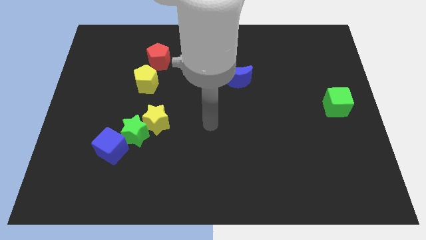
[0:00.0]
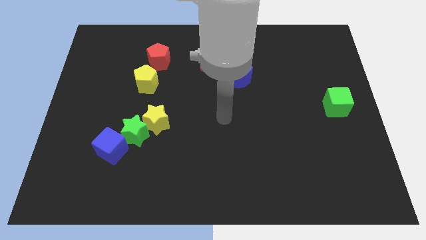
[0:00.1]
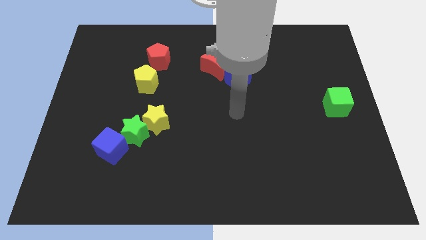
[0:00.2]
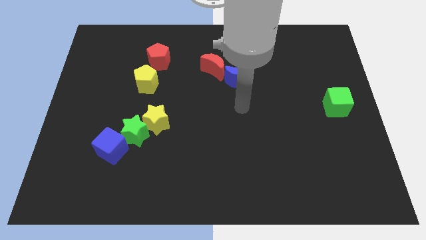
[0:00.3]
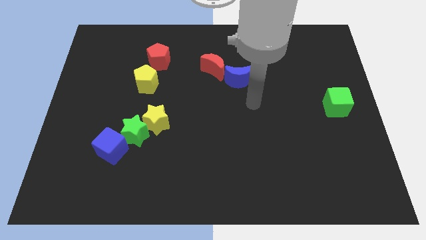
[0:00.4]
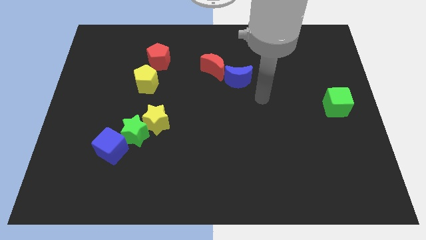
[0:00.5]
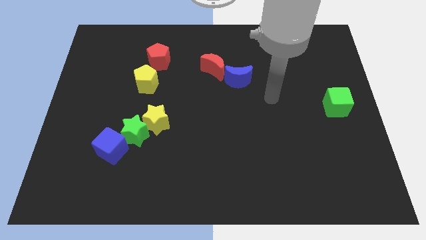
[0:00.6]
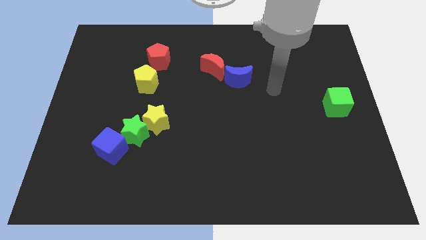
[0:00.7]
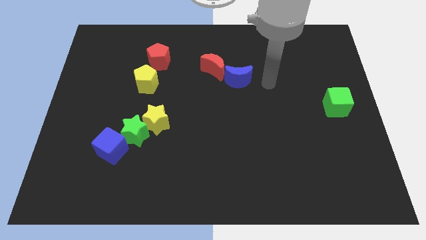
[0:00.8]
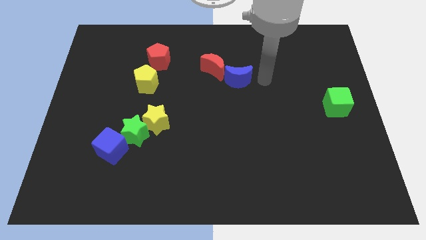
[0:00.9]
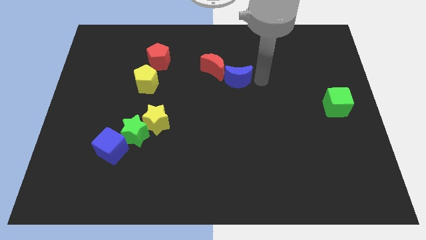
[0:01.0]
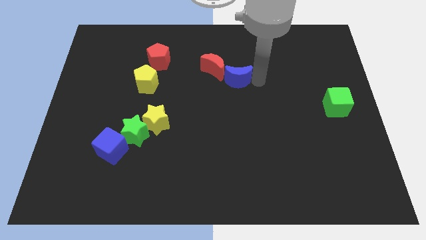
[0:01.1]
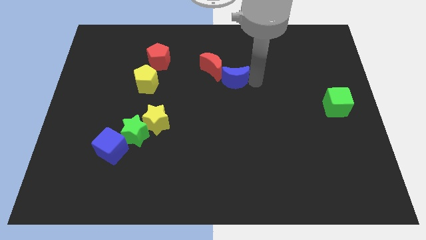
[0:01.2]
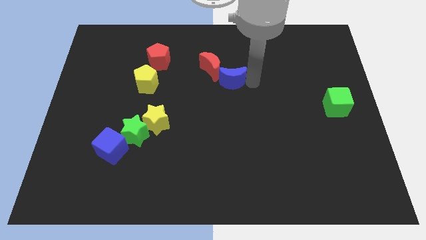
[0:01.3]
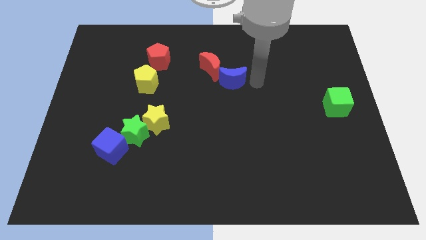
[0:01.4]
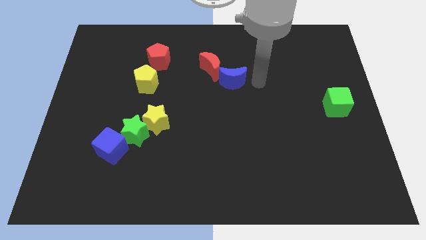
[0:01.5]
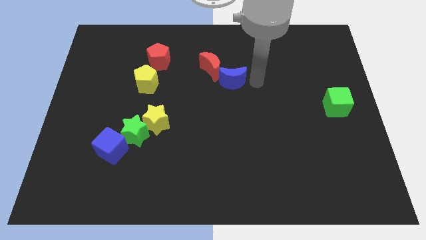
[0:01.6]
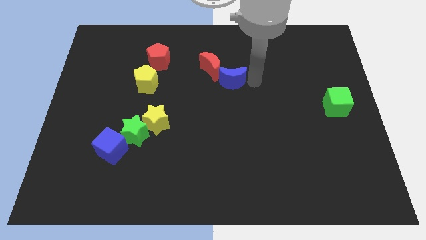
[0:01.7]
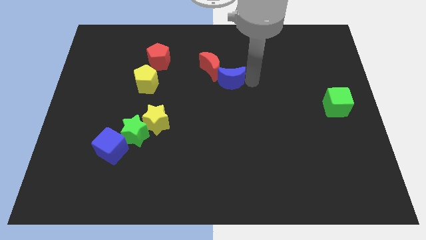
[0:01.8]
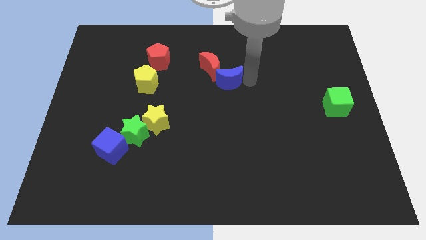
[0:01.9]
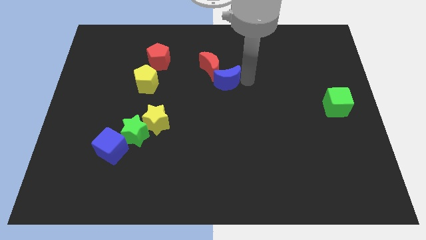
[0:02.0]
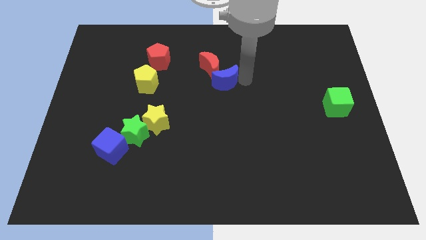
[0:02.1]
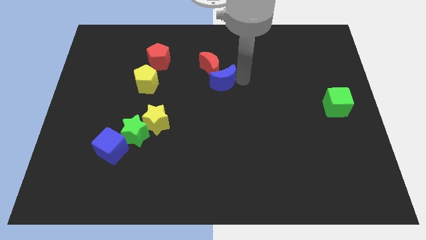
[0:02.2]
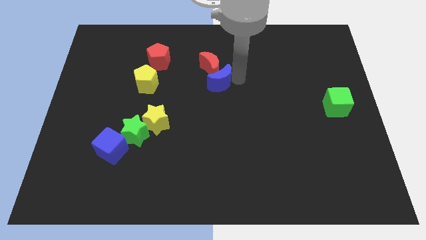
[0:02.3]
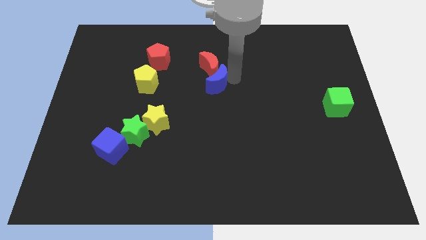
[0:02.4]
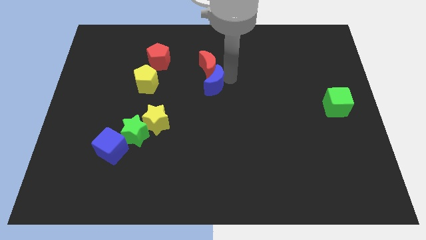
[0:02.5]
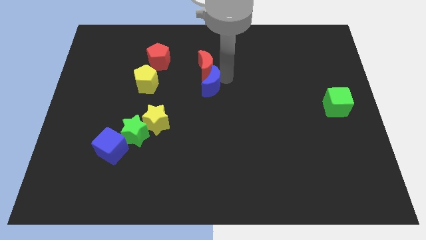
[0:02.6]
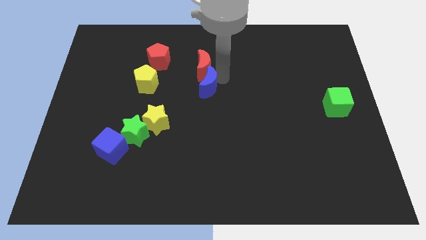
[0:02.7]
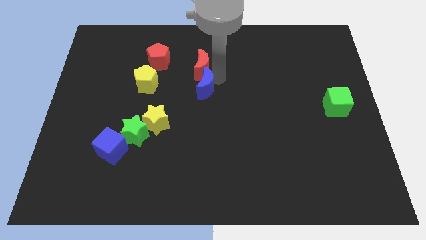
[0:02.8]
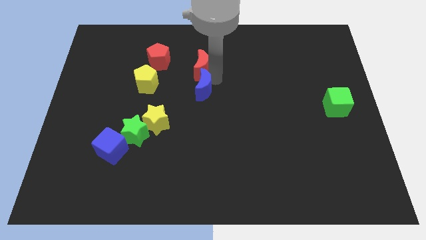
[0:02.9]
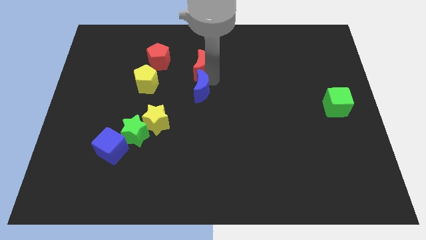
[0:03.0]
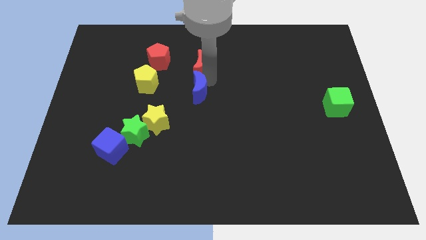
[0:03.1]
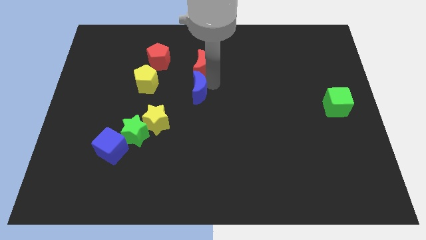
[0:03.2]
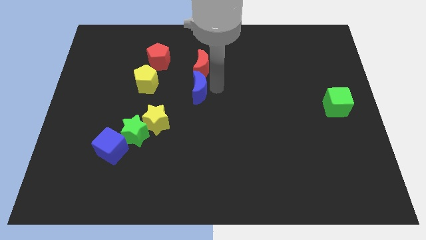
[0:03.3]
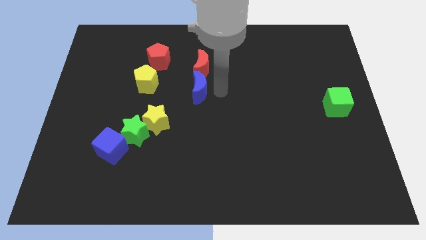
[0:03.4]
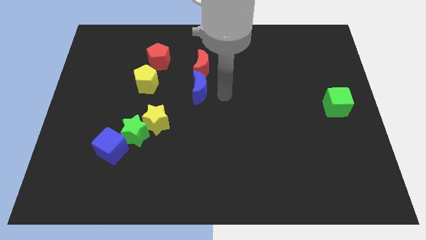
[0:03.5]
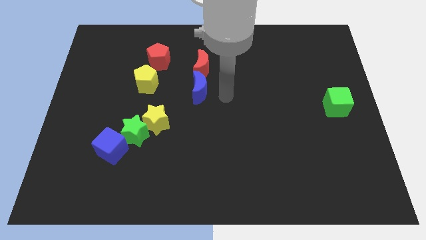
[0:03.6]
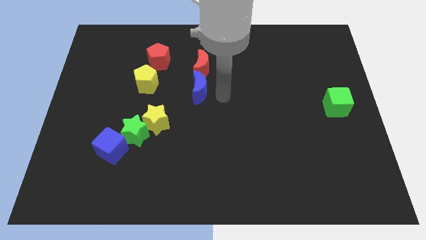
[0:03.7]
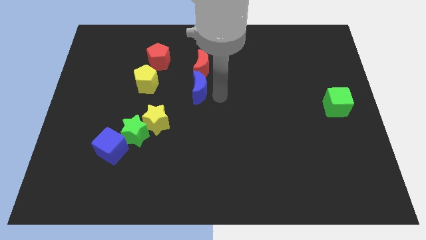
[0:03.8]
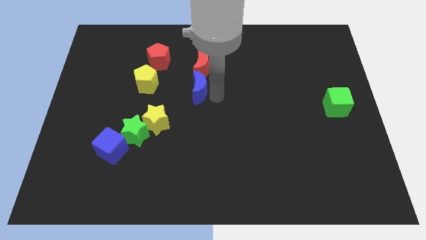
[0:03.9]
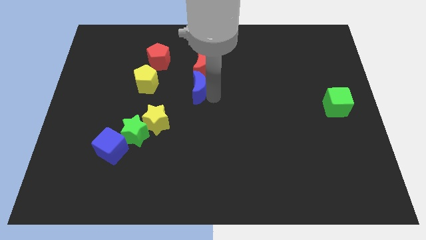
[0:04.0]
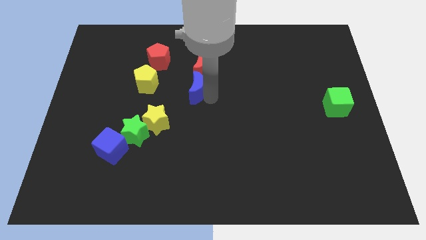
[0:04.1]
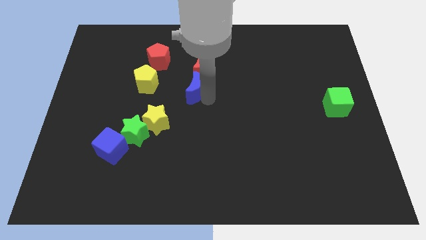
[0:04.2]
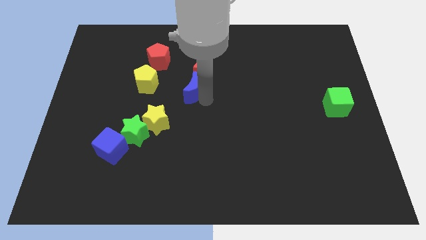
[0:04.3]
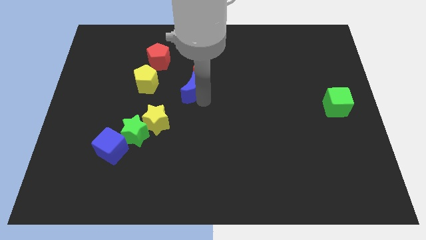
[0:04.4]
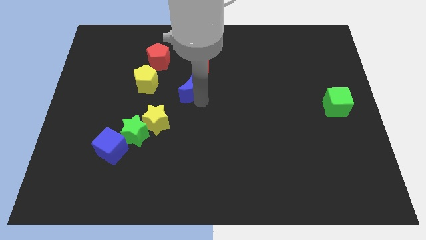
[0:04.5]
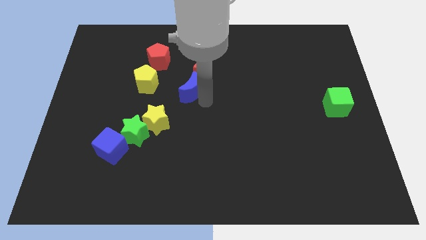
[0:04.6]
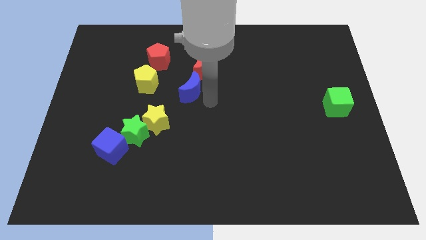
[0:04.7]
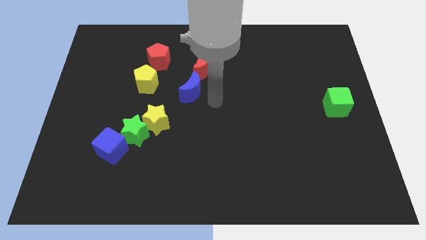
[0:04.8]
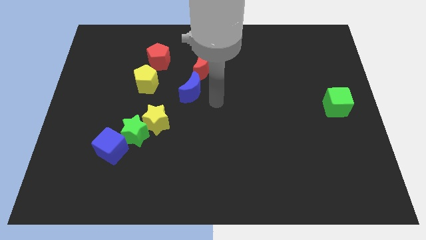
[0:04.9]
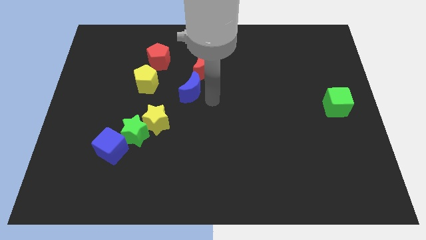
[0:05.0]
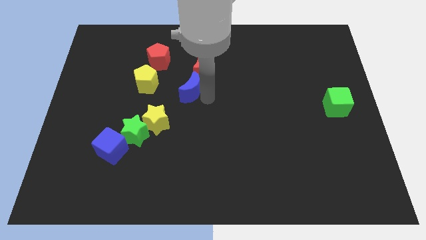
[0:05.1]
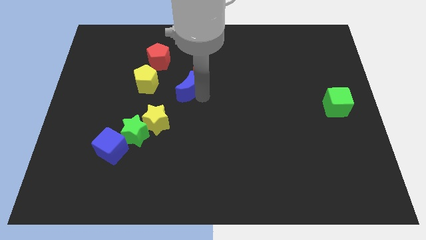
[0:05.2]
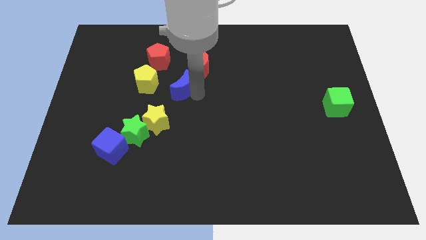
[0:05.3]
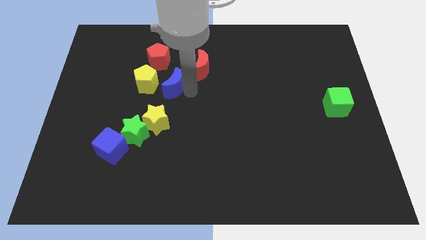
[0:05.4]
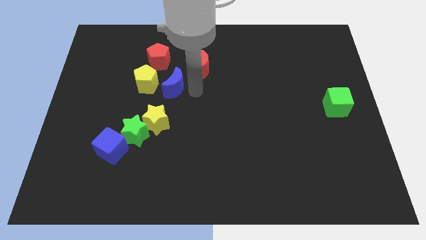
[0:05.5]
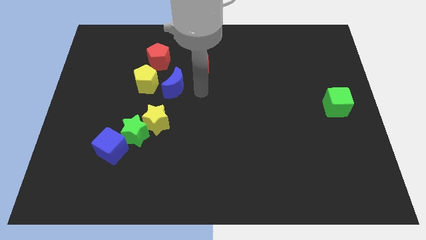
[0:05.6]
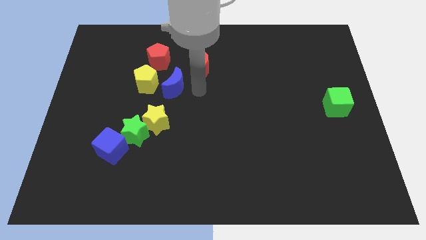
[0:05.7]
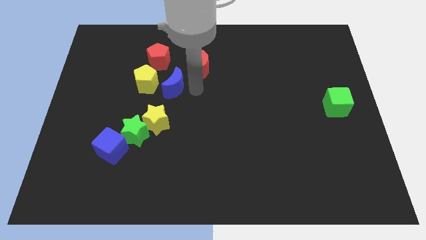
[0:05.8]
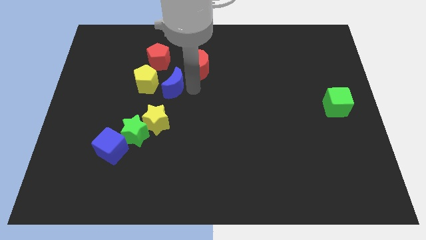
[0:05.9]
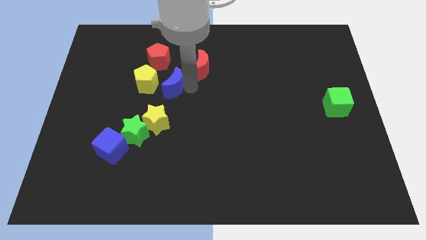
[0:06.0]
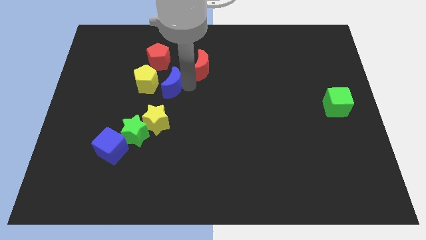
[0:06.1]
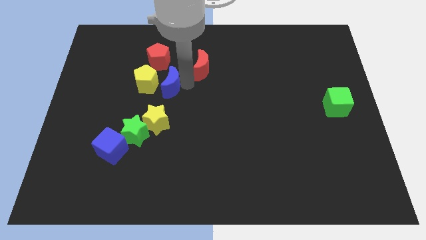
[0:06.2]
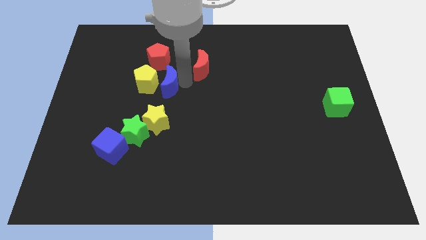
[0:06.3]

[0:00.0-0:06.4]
slide the blue moon close to the yellow pentagon
